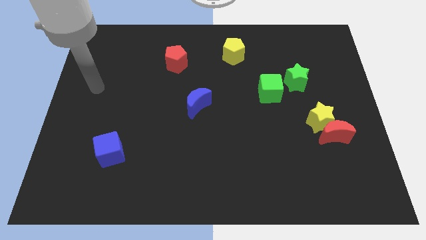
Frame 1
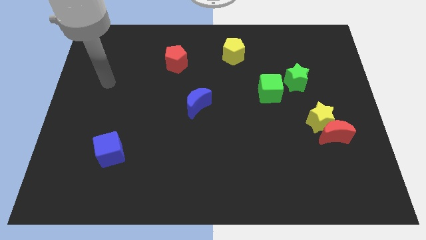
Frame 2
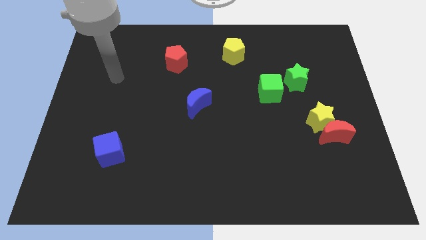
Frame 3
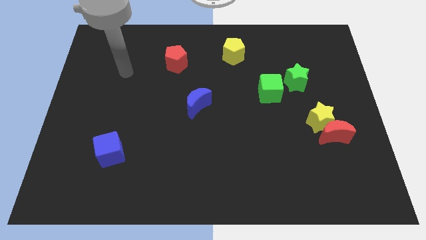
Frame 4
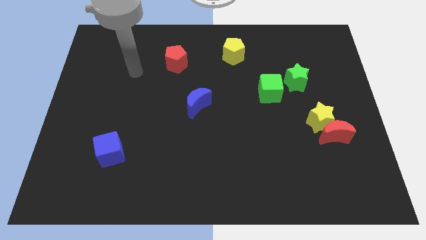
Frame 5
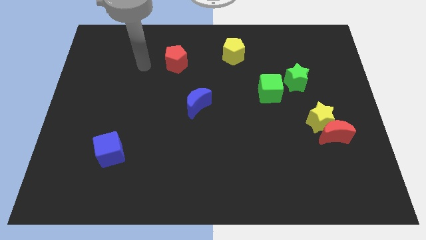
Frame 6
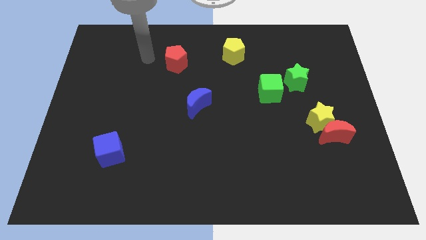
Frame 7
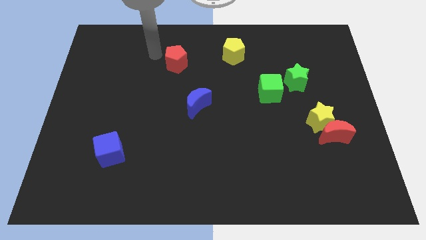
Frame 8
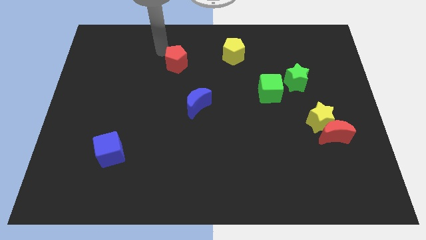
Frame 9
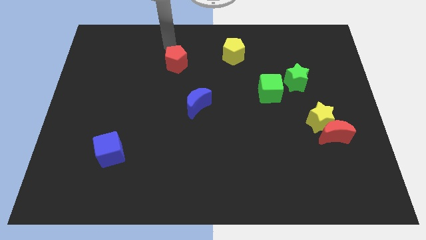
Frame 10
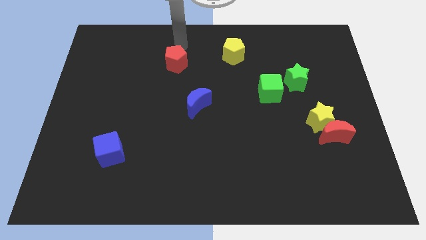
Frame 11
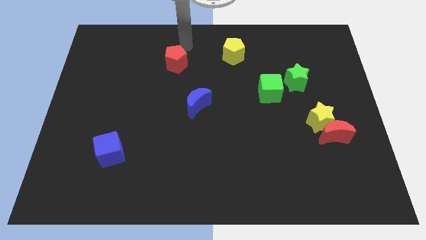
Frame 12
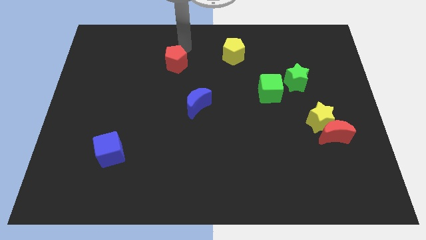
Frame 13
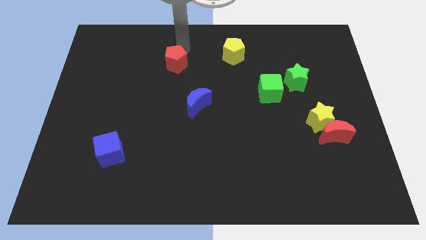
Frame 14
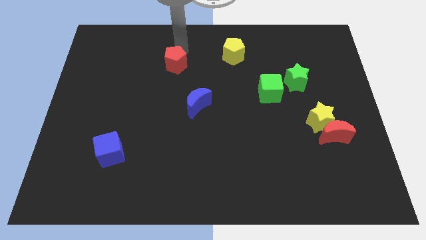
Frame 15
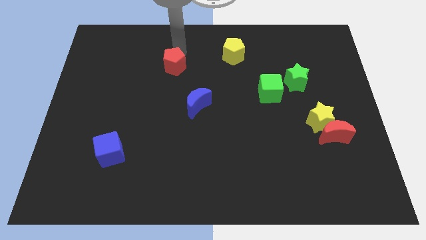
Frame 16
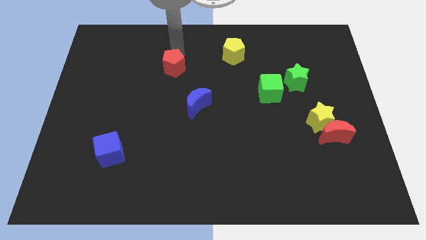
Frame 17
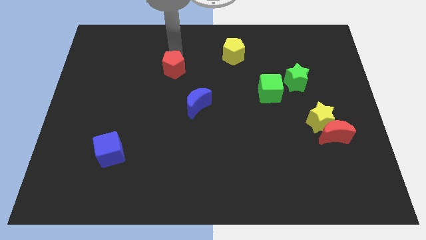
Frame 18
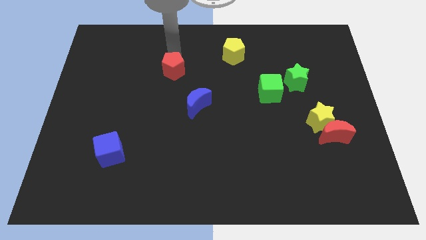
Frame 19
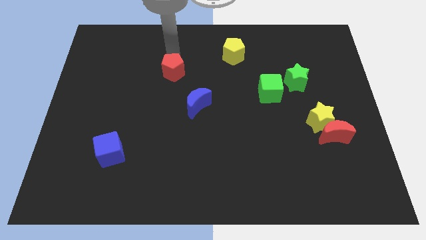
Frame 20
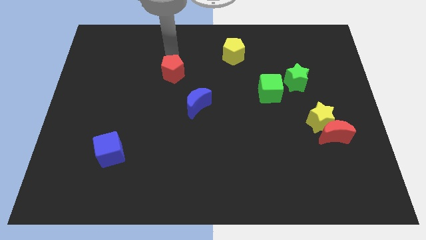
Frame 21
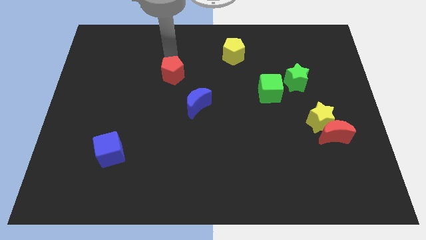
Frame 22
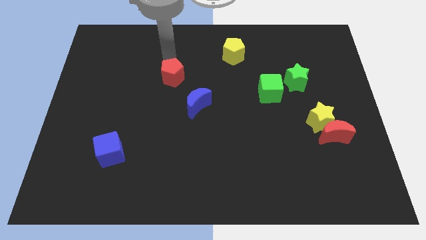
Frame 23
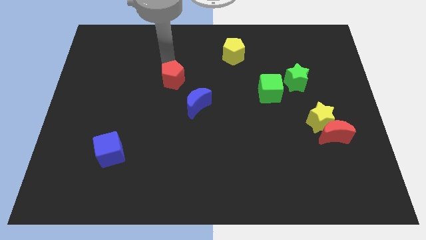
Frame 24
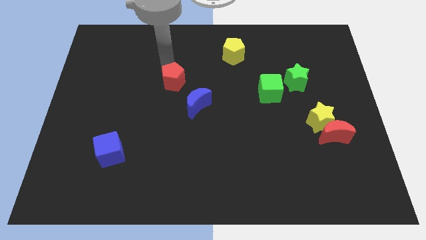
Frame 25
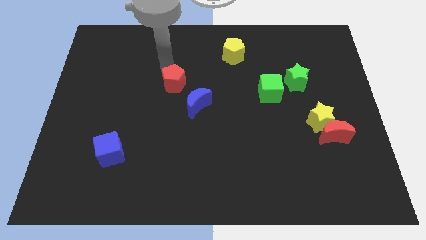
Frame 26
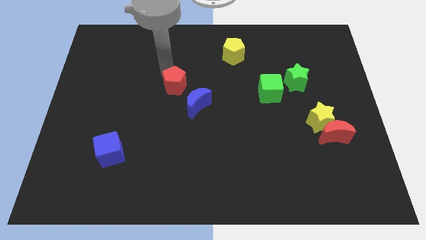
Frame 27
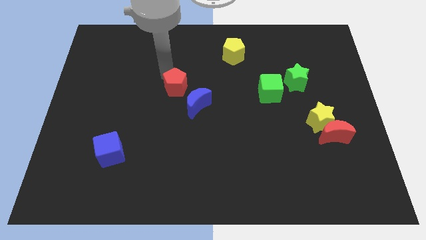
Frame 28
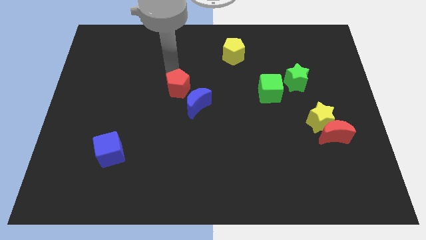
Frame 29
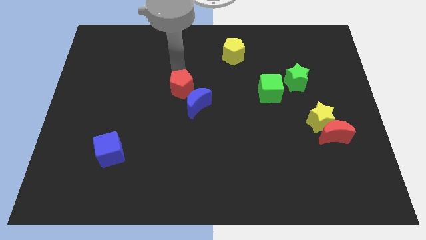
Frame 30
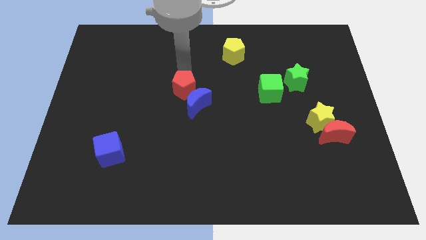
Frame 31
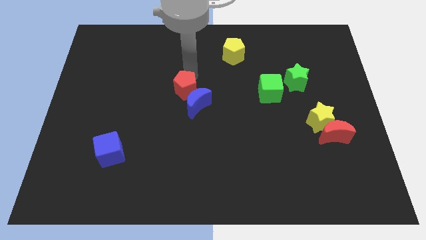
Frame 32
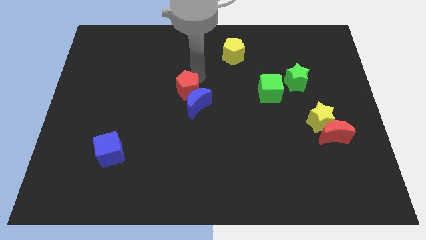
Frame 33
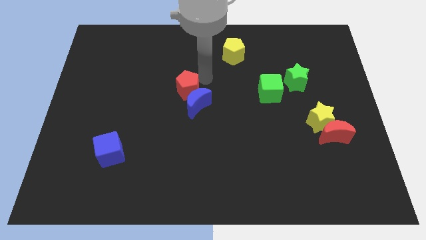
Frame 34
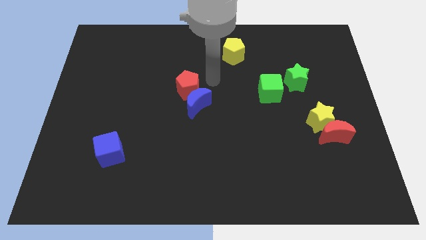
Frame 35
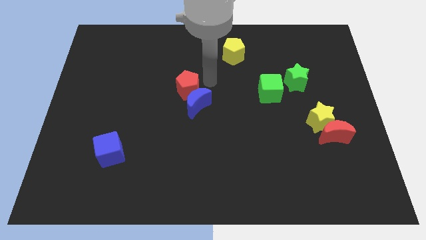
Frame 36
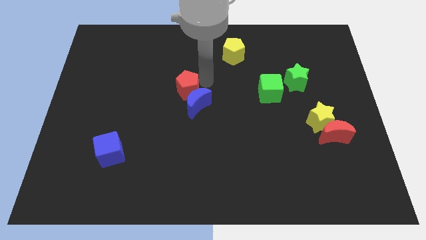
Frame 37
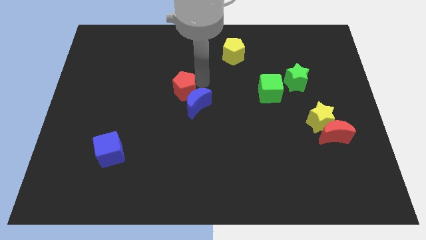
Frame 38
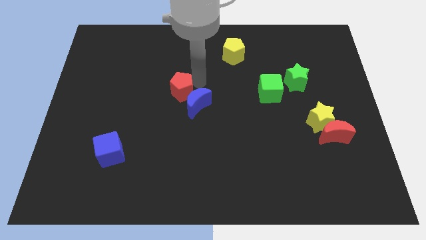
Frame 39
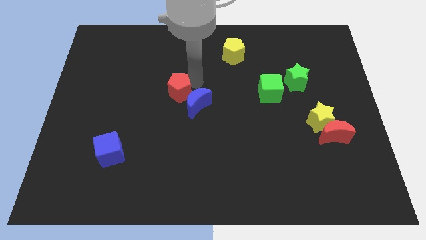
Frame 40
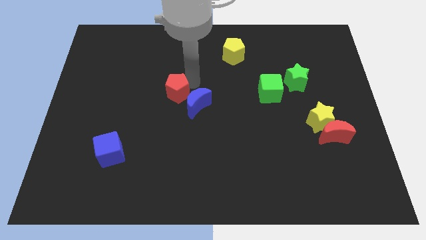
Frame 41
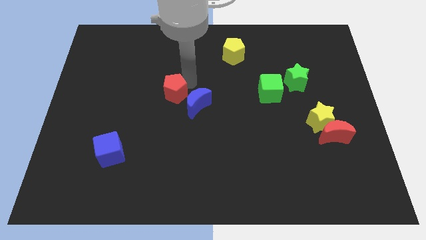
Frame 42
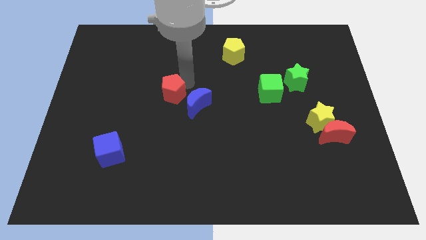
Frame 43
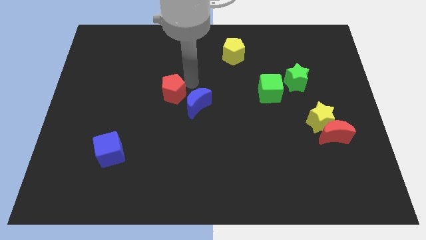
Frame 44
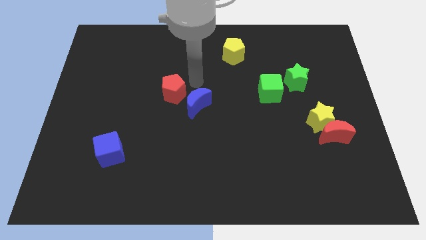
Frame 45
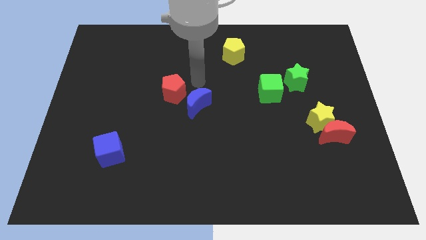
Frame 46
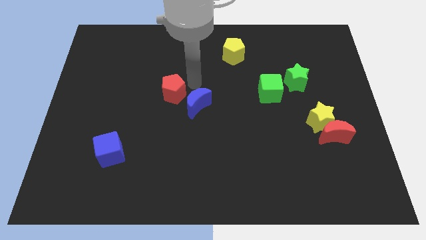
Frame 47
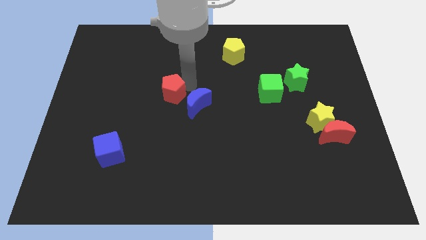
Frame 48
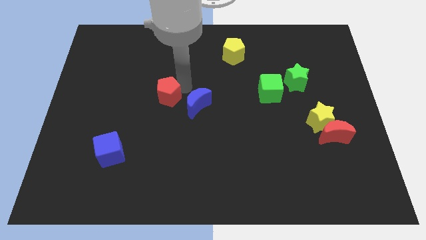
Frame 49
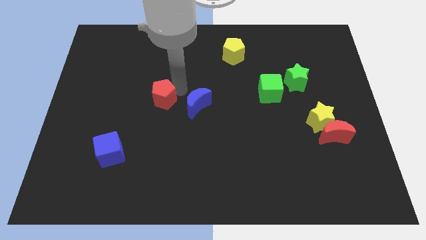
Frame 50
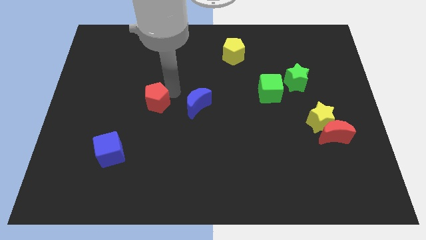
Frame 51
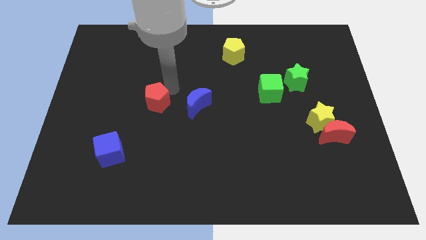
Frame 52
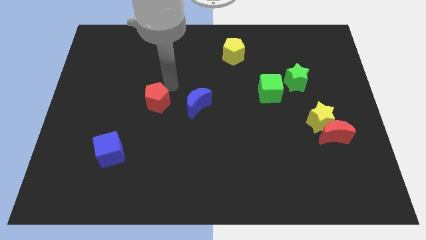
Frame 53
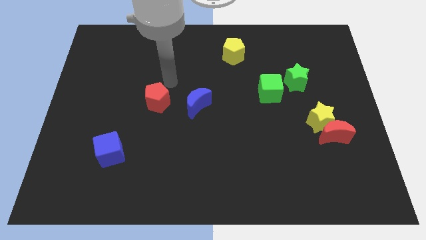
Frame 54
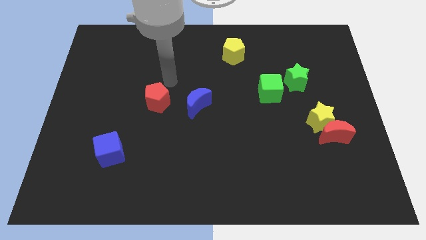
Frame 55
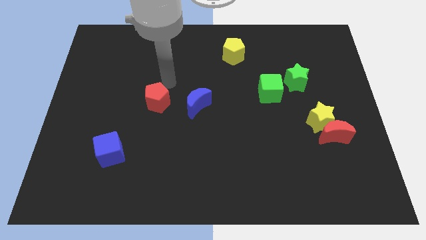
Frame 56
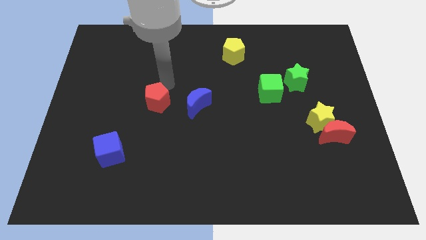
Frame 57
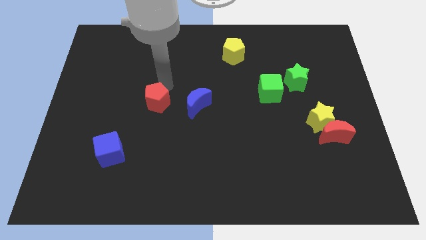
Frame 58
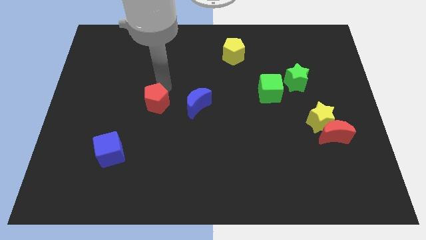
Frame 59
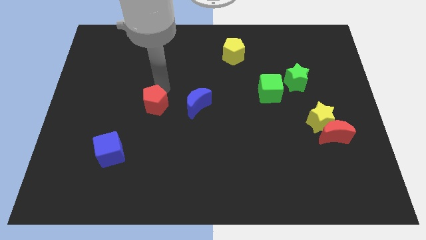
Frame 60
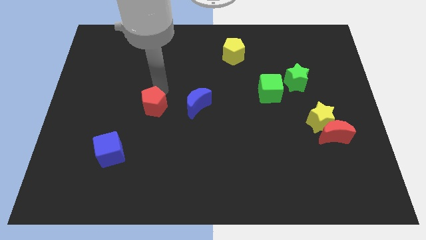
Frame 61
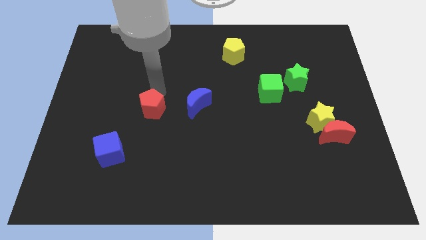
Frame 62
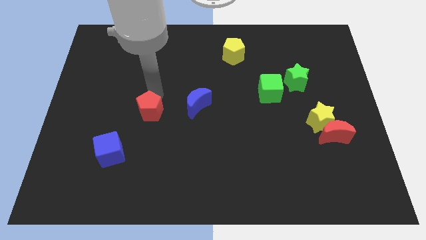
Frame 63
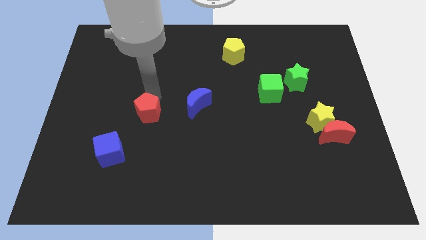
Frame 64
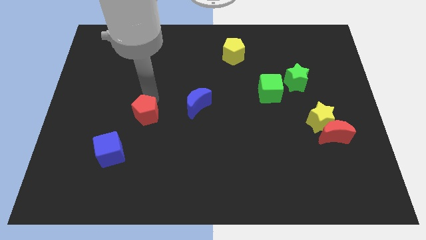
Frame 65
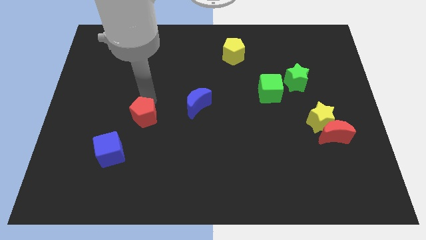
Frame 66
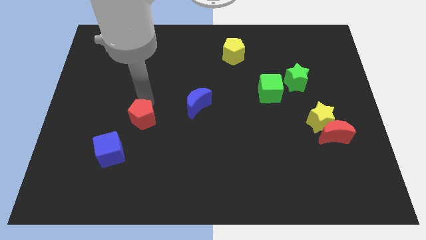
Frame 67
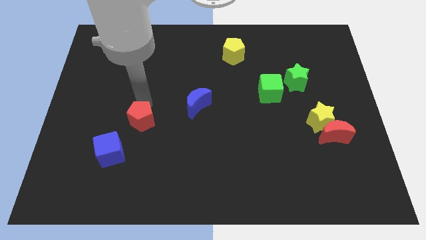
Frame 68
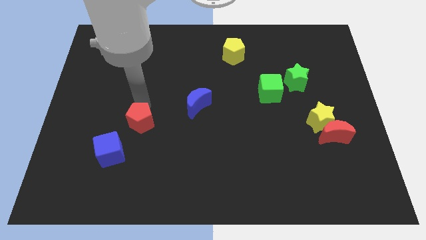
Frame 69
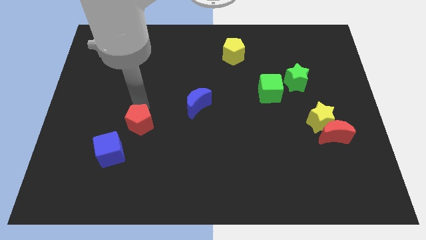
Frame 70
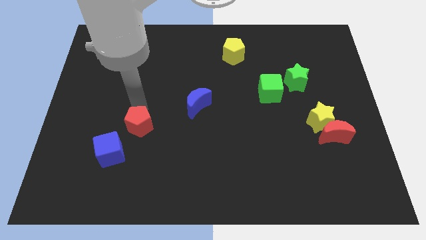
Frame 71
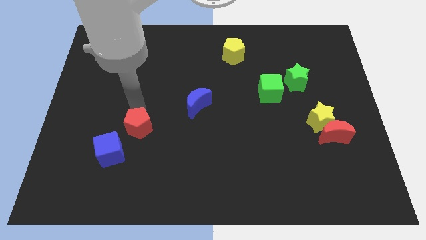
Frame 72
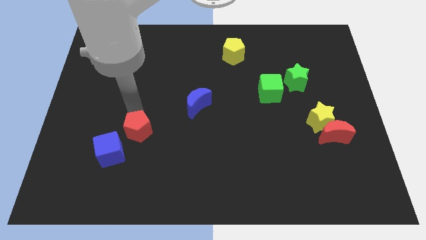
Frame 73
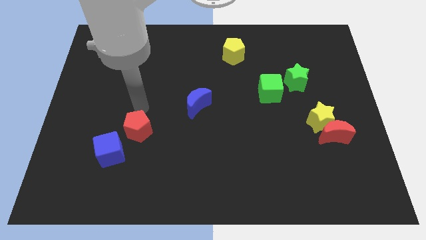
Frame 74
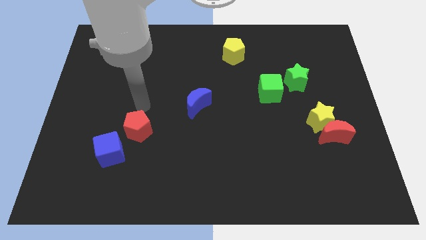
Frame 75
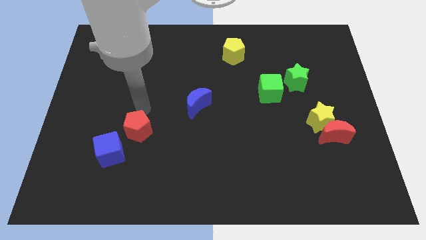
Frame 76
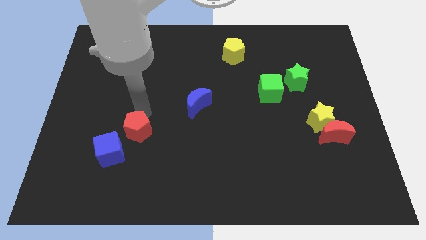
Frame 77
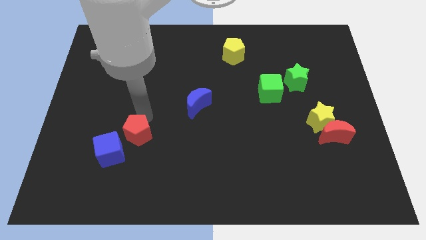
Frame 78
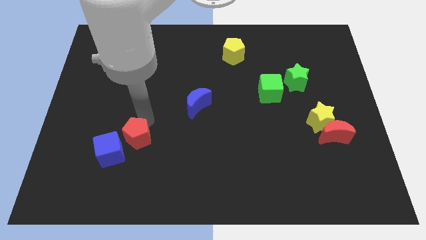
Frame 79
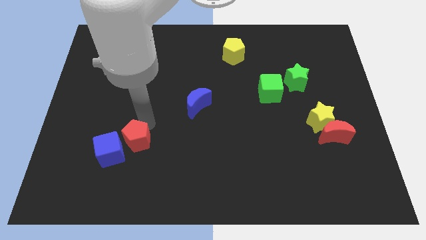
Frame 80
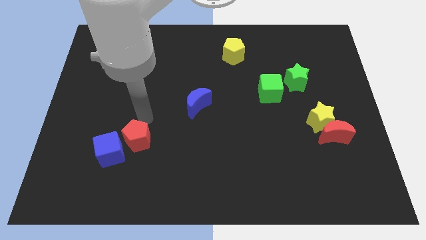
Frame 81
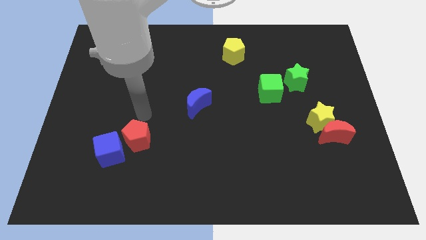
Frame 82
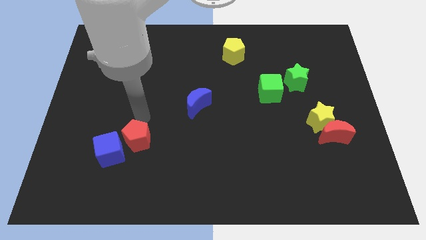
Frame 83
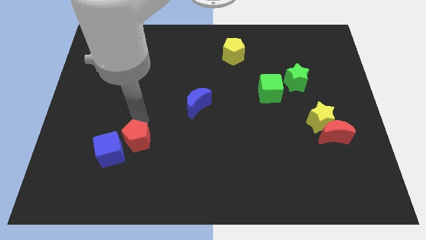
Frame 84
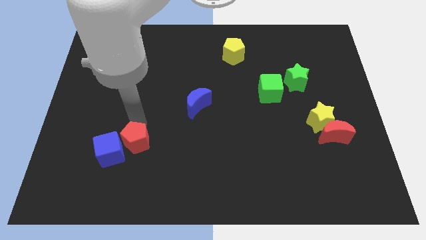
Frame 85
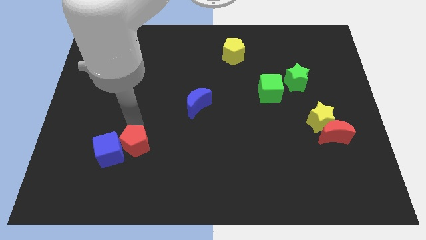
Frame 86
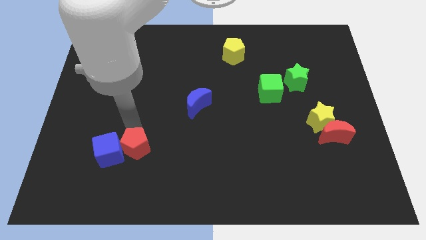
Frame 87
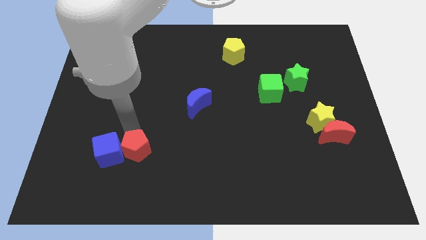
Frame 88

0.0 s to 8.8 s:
slide the red pentagon to the bottom right of the blue cube
